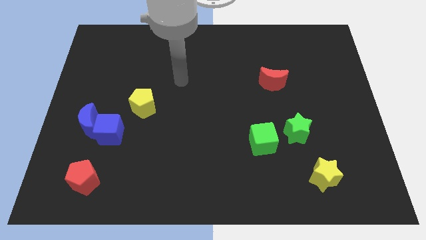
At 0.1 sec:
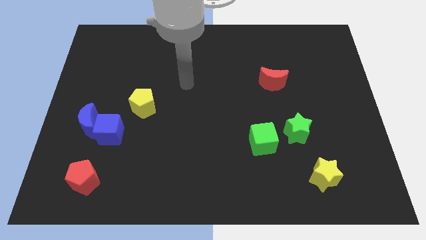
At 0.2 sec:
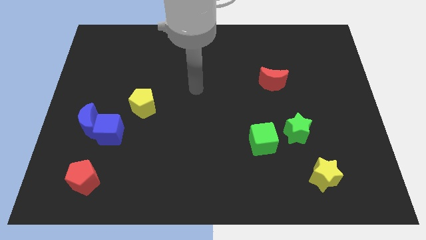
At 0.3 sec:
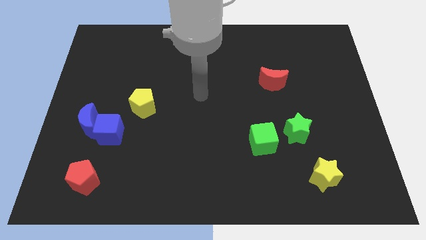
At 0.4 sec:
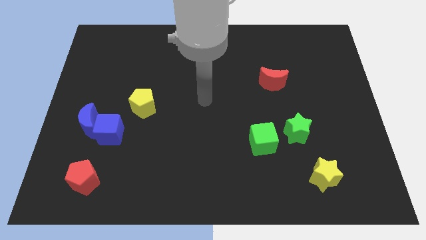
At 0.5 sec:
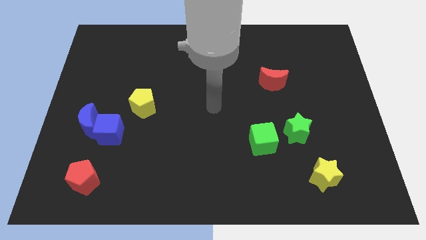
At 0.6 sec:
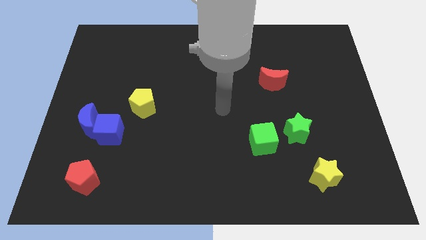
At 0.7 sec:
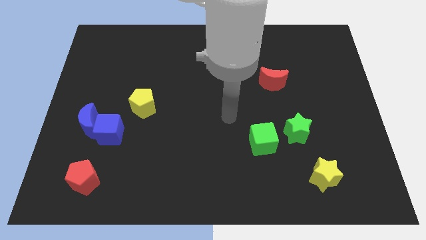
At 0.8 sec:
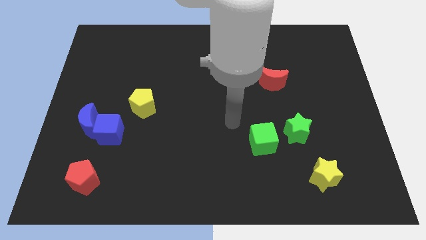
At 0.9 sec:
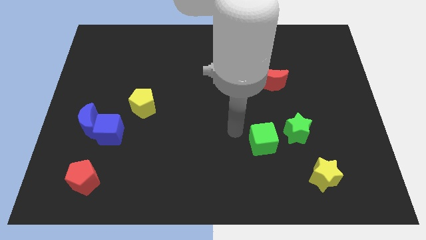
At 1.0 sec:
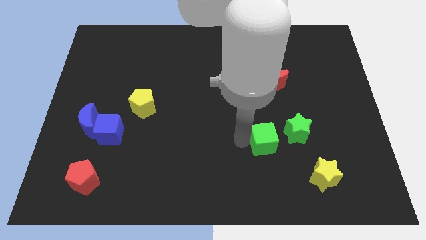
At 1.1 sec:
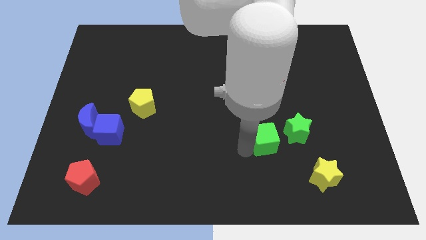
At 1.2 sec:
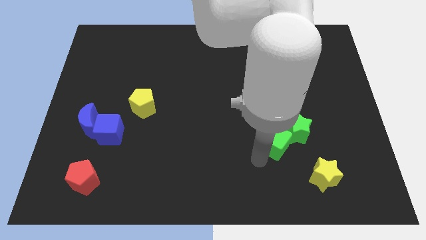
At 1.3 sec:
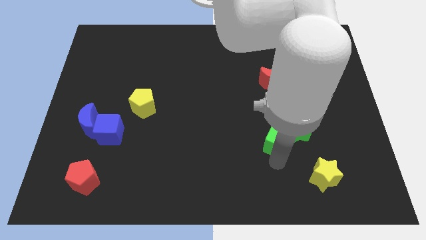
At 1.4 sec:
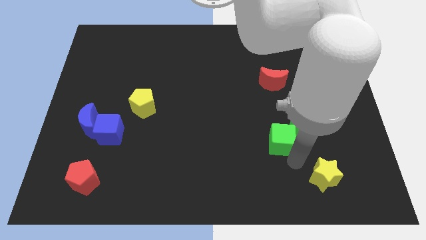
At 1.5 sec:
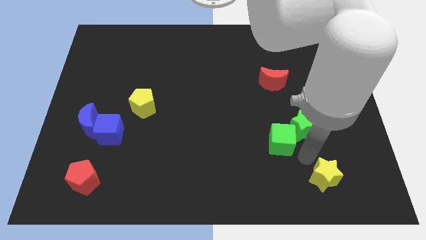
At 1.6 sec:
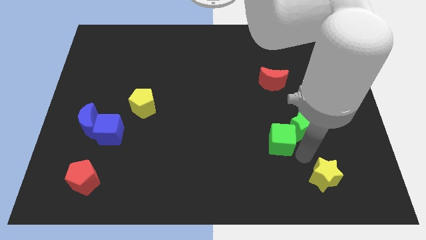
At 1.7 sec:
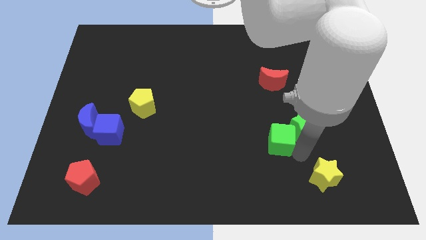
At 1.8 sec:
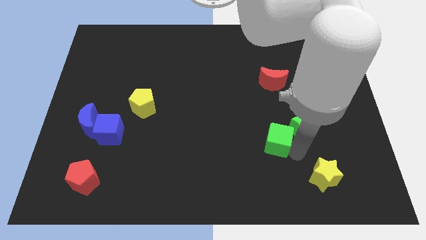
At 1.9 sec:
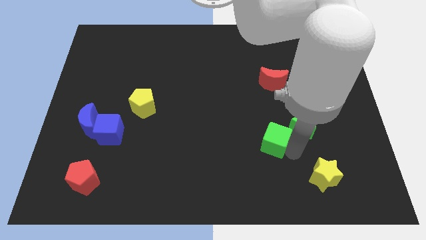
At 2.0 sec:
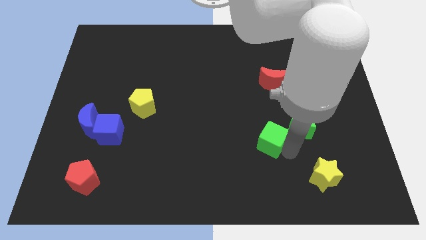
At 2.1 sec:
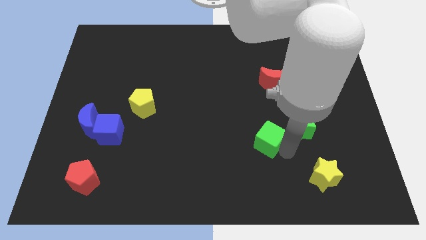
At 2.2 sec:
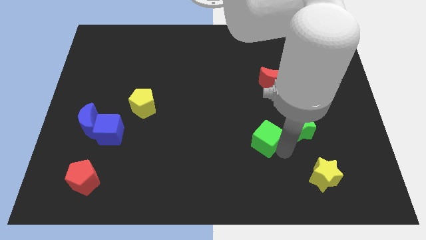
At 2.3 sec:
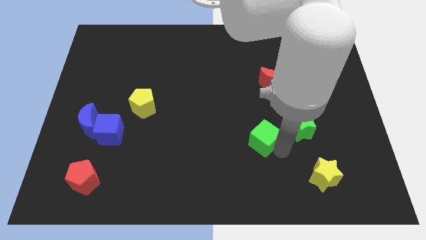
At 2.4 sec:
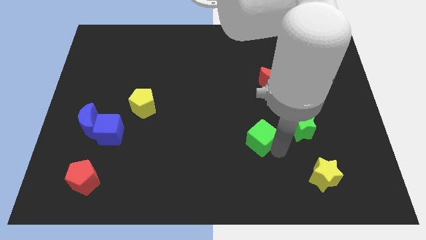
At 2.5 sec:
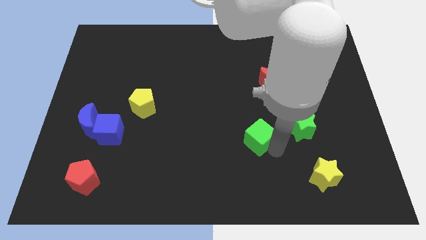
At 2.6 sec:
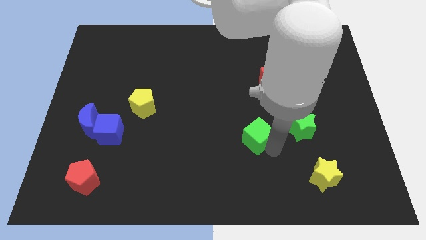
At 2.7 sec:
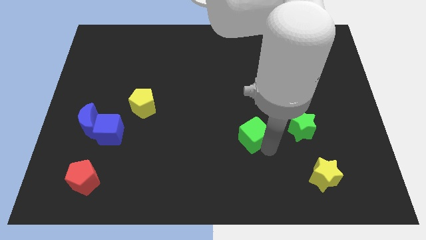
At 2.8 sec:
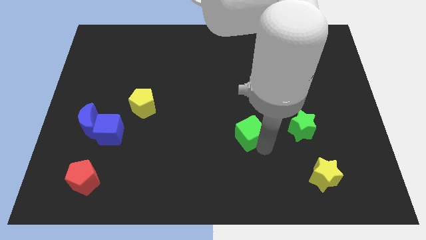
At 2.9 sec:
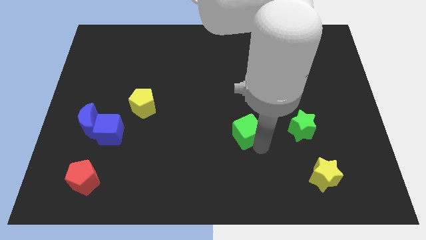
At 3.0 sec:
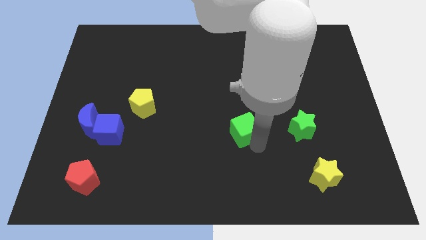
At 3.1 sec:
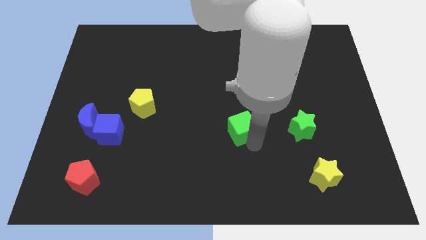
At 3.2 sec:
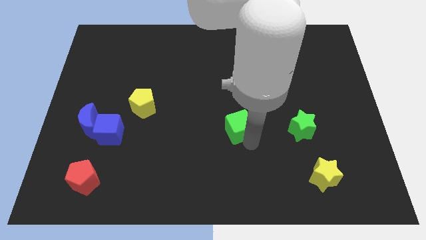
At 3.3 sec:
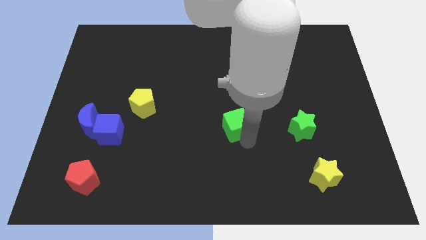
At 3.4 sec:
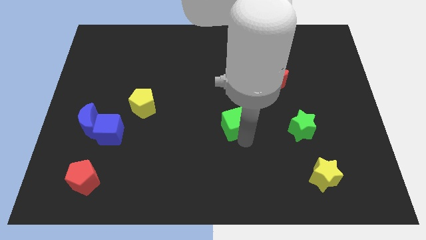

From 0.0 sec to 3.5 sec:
push the green cube up and to the left a bit

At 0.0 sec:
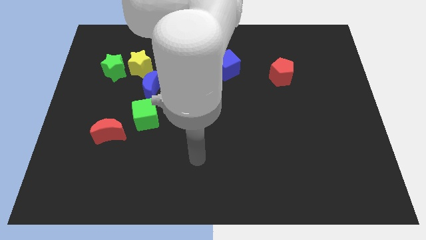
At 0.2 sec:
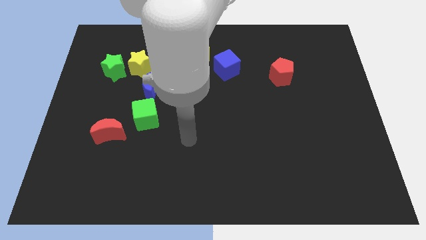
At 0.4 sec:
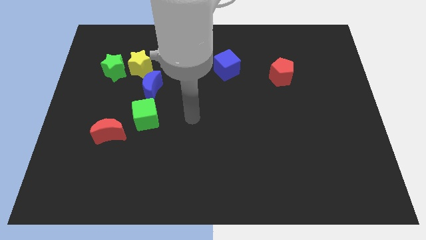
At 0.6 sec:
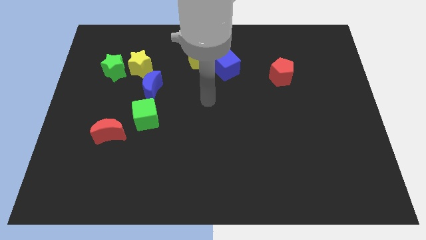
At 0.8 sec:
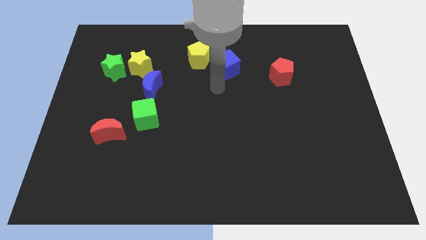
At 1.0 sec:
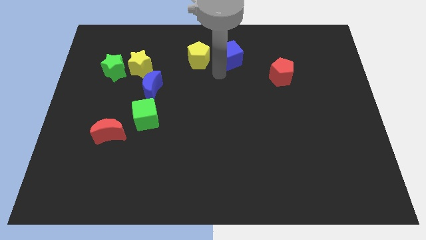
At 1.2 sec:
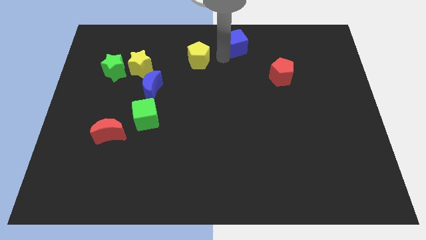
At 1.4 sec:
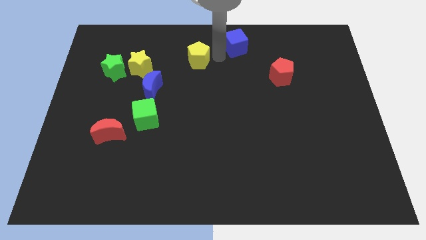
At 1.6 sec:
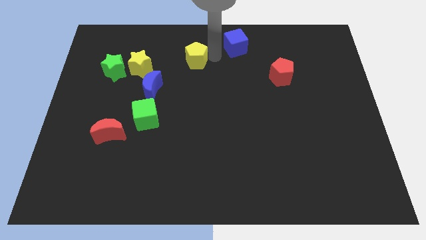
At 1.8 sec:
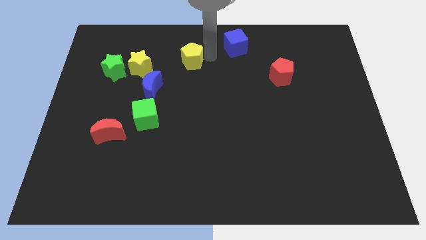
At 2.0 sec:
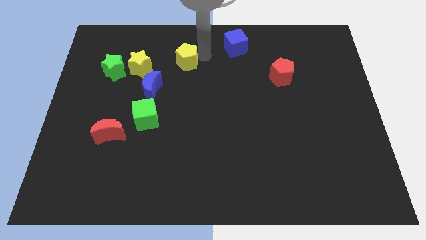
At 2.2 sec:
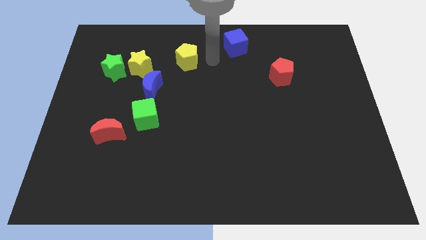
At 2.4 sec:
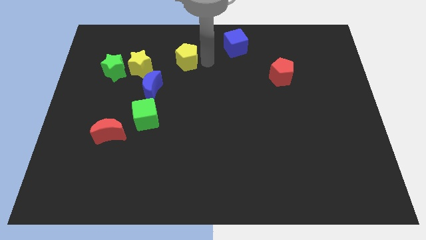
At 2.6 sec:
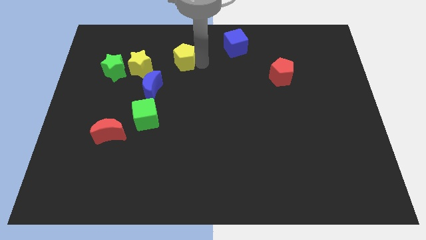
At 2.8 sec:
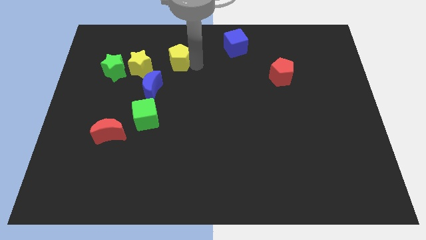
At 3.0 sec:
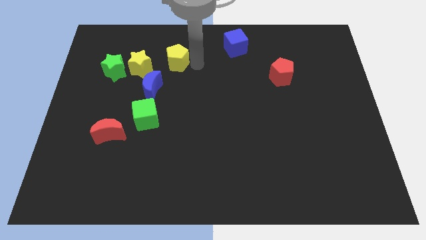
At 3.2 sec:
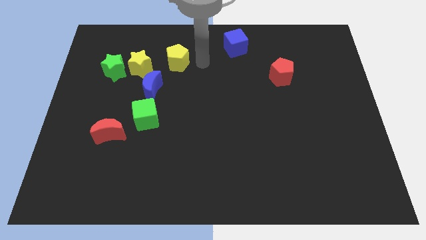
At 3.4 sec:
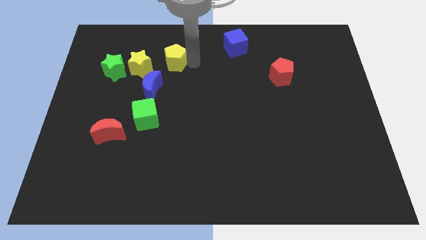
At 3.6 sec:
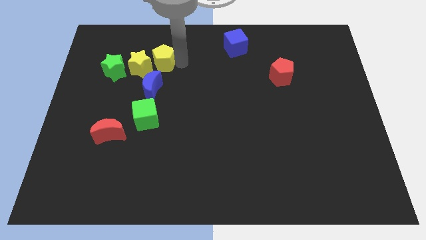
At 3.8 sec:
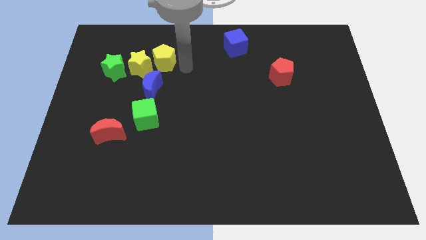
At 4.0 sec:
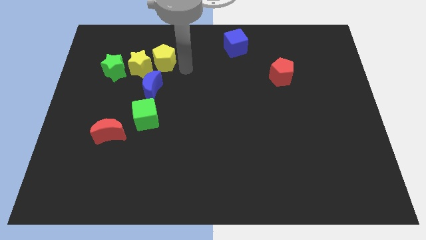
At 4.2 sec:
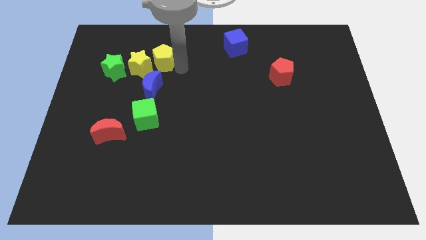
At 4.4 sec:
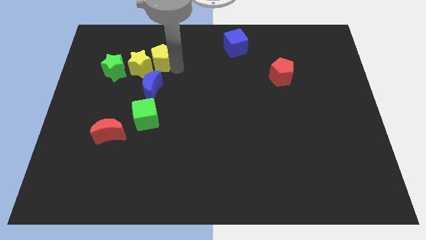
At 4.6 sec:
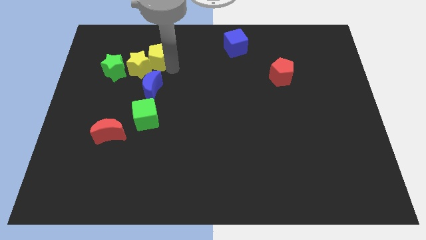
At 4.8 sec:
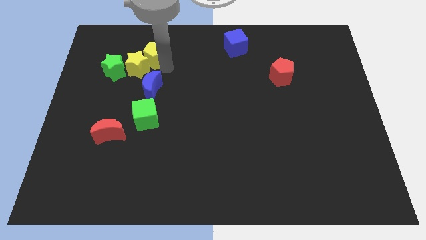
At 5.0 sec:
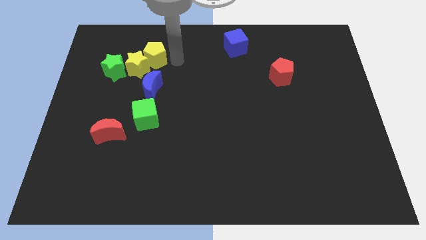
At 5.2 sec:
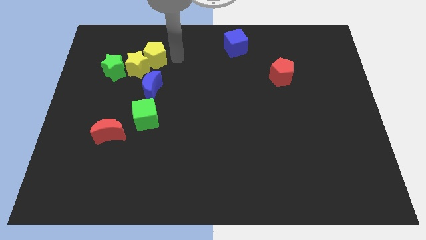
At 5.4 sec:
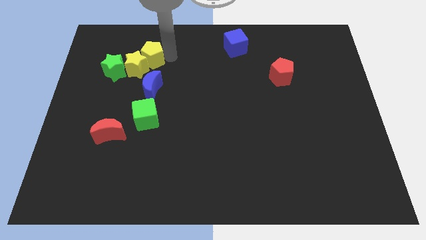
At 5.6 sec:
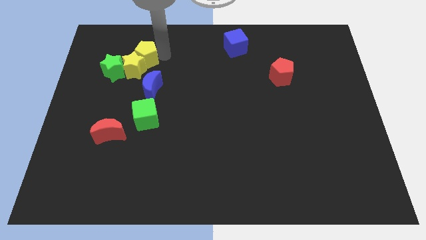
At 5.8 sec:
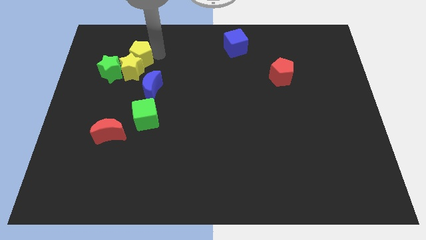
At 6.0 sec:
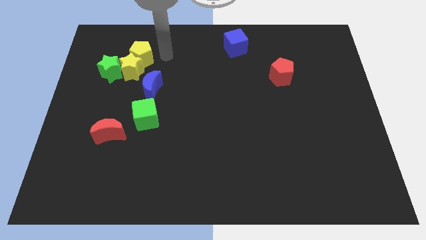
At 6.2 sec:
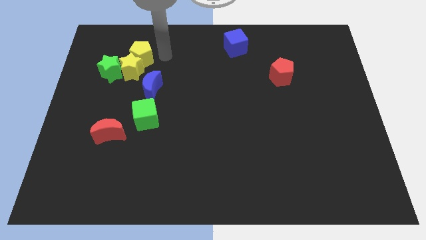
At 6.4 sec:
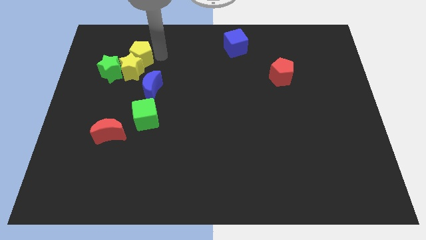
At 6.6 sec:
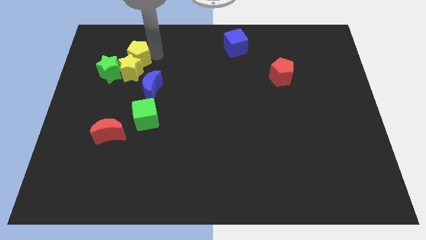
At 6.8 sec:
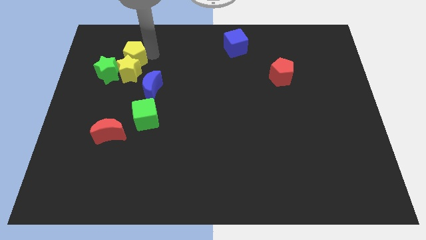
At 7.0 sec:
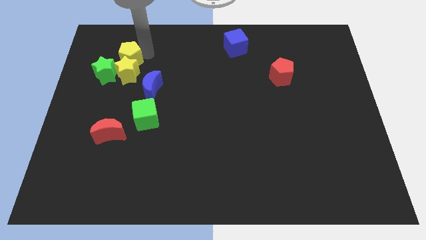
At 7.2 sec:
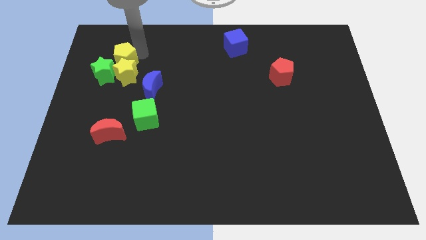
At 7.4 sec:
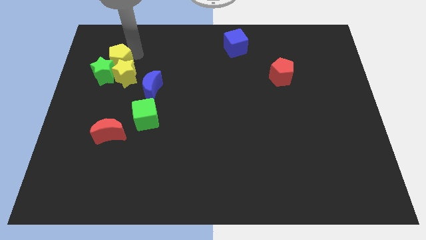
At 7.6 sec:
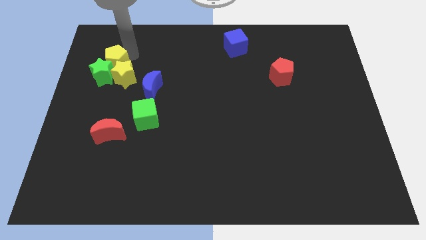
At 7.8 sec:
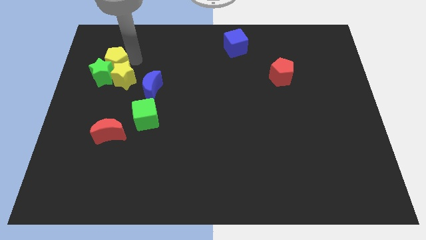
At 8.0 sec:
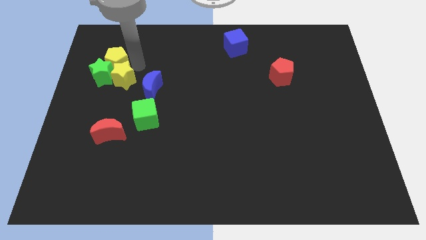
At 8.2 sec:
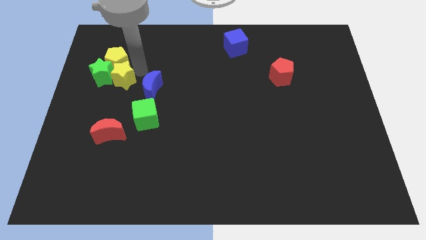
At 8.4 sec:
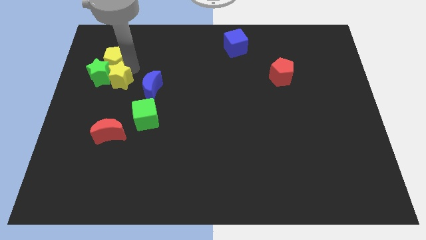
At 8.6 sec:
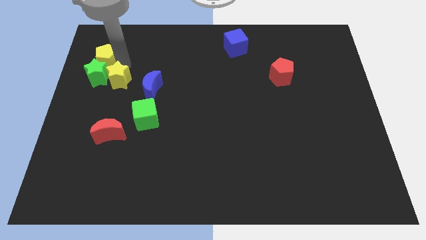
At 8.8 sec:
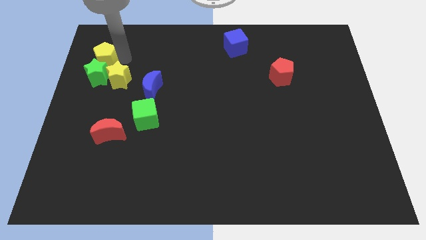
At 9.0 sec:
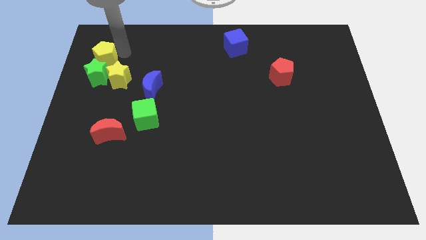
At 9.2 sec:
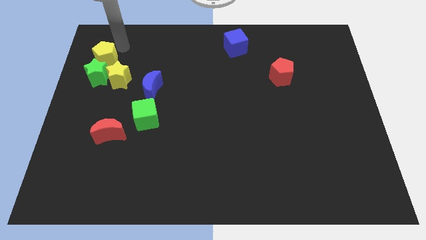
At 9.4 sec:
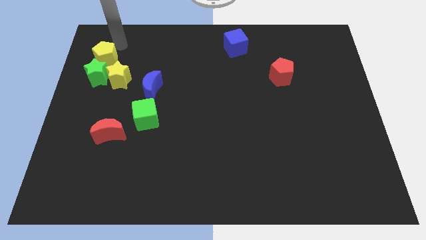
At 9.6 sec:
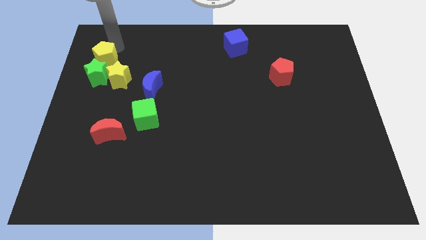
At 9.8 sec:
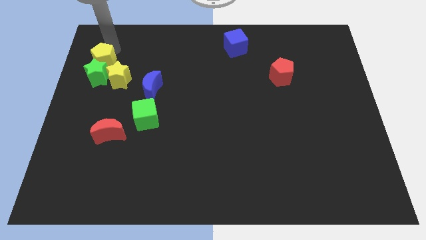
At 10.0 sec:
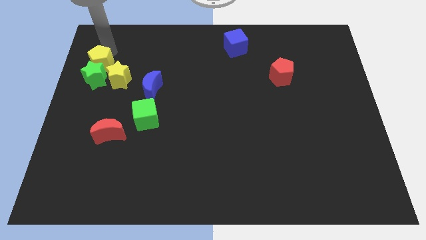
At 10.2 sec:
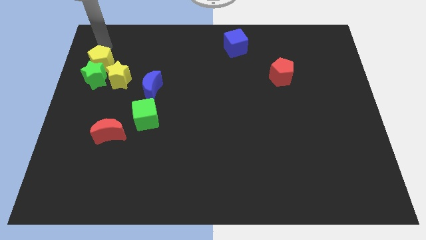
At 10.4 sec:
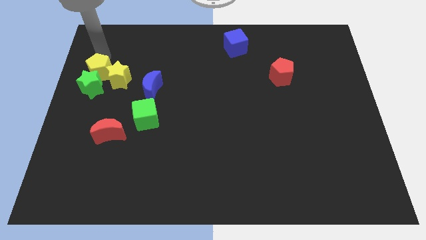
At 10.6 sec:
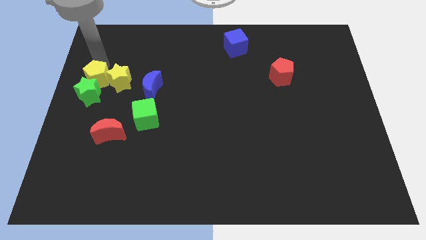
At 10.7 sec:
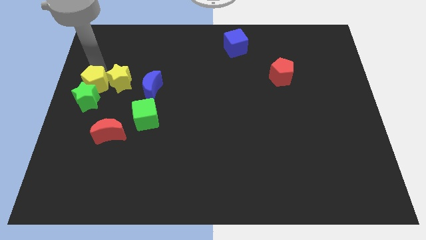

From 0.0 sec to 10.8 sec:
slightly move the yellow pentagon downwards and then left
